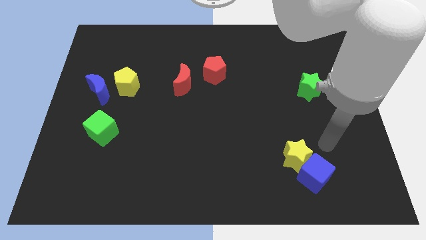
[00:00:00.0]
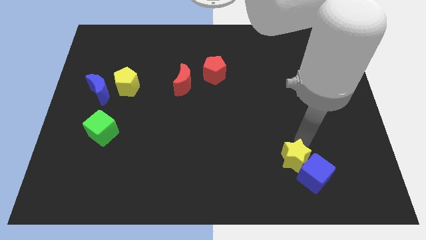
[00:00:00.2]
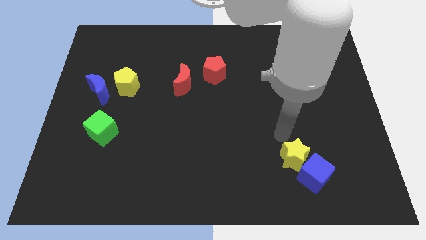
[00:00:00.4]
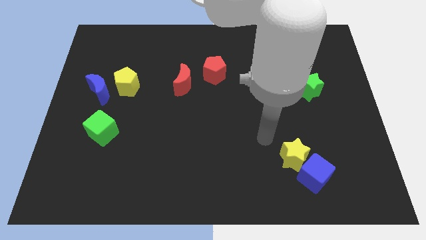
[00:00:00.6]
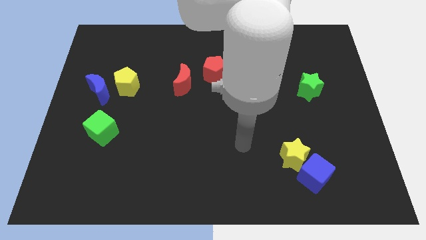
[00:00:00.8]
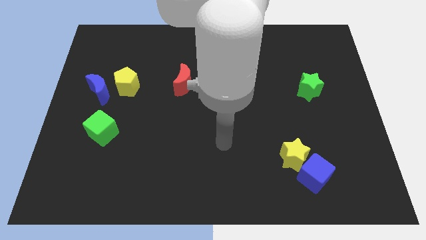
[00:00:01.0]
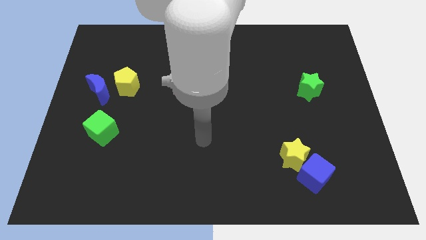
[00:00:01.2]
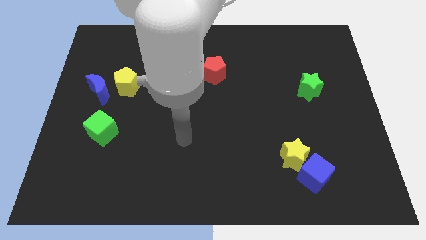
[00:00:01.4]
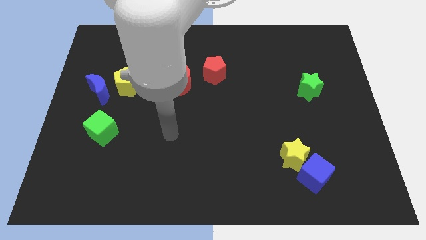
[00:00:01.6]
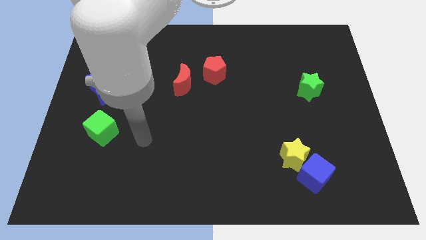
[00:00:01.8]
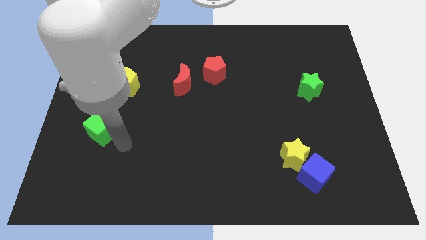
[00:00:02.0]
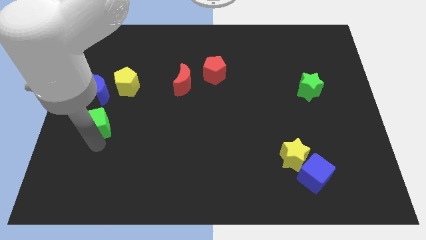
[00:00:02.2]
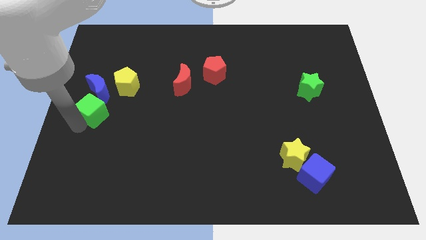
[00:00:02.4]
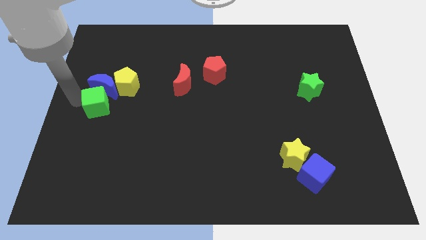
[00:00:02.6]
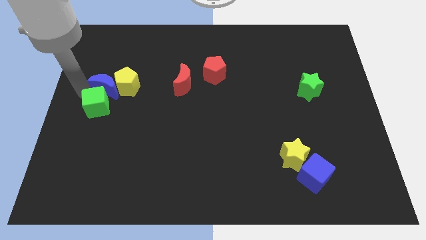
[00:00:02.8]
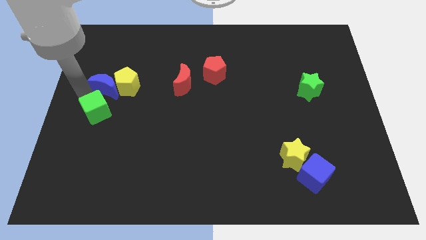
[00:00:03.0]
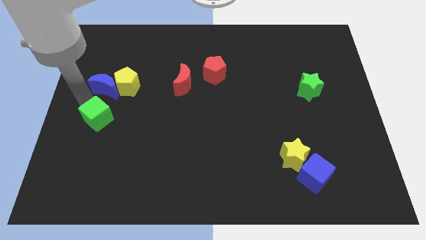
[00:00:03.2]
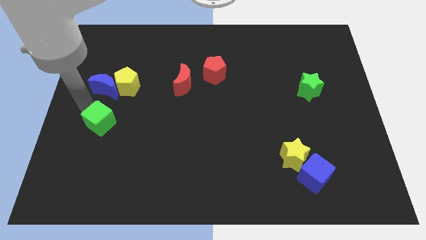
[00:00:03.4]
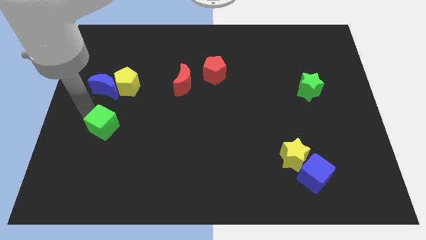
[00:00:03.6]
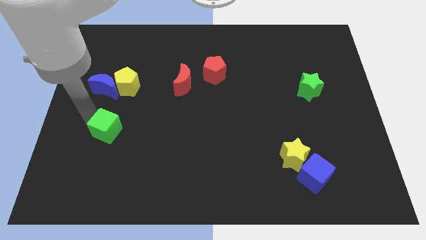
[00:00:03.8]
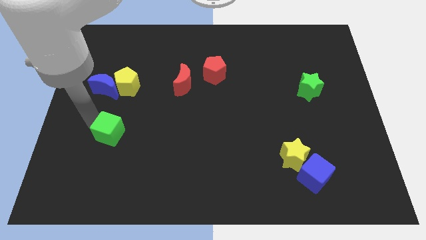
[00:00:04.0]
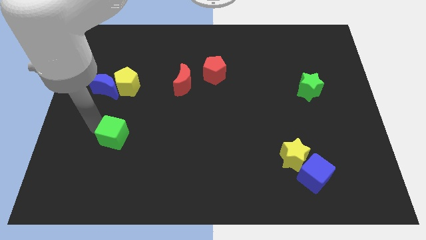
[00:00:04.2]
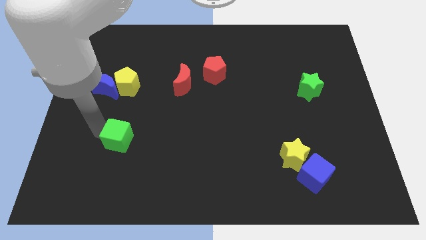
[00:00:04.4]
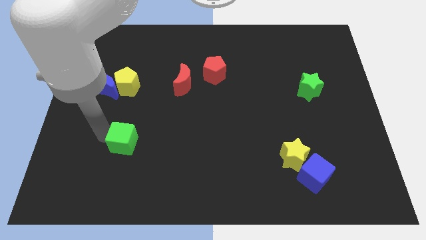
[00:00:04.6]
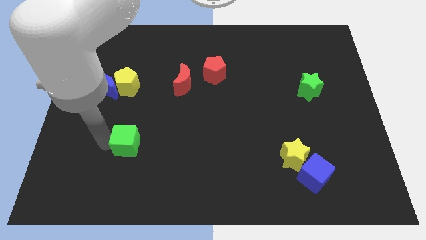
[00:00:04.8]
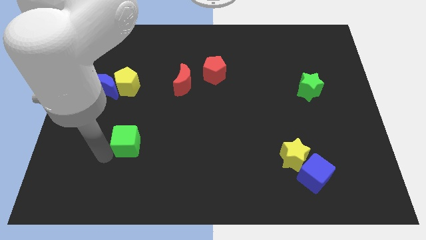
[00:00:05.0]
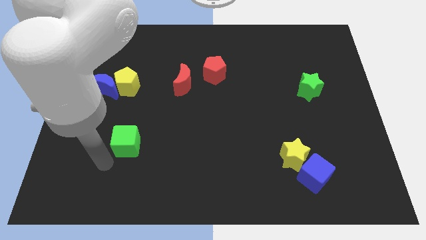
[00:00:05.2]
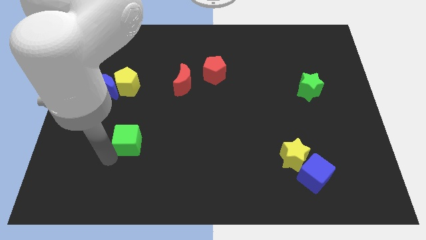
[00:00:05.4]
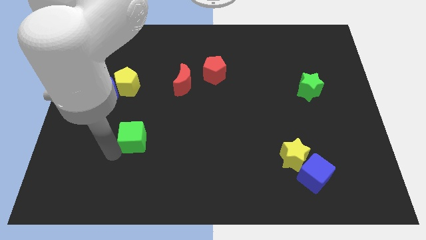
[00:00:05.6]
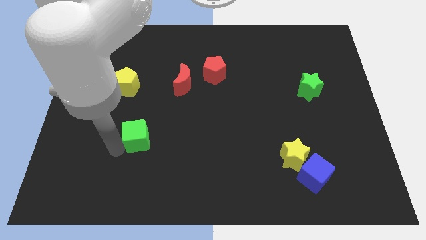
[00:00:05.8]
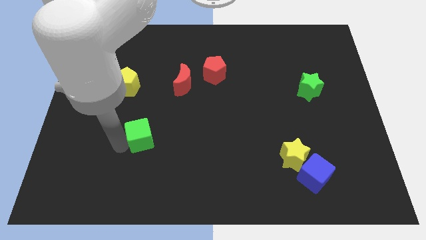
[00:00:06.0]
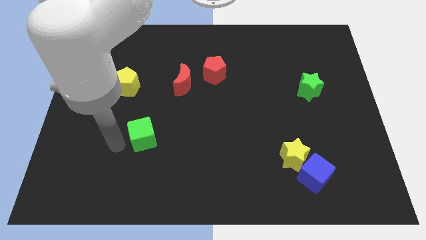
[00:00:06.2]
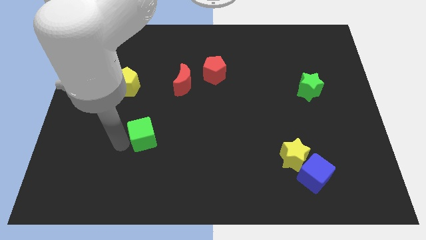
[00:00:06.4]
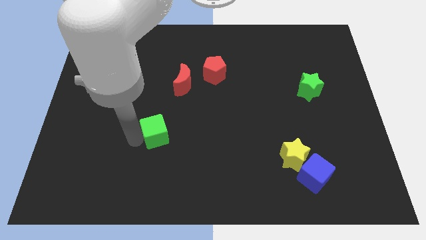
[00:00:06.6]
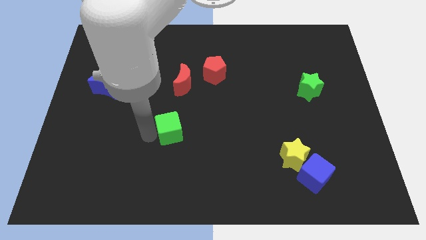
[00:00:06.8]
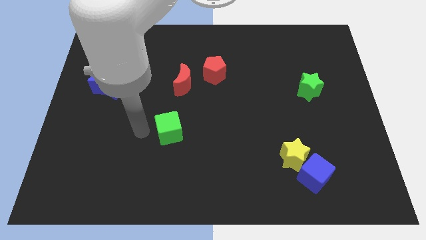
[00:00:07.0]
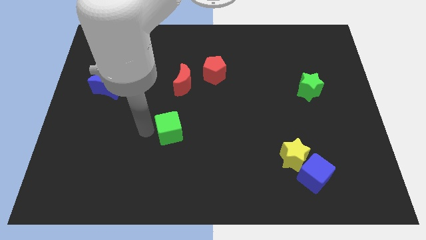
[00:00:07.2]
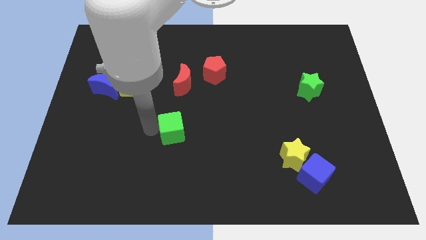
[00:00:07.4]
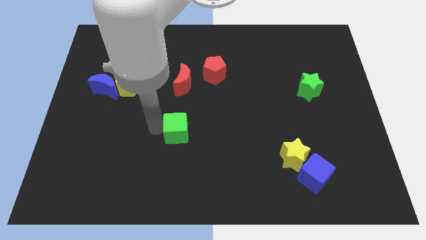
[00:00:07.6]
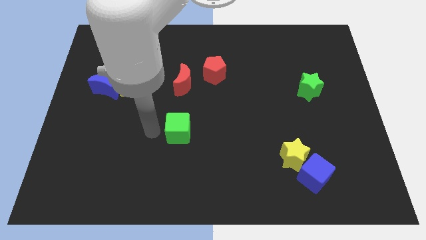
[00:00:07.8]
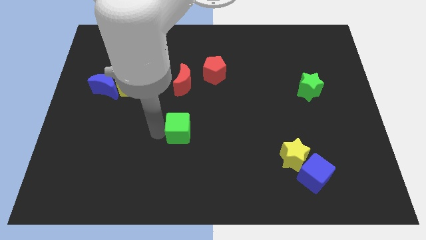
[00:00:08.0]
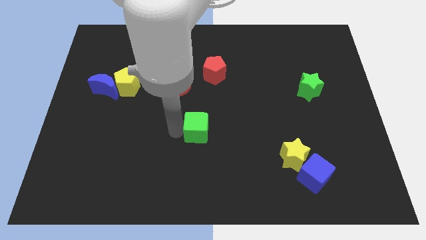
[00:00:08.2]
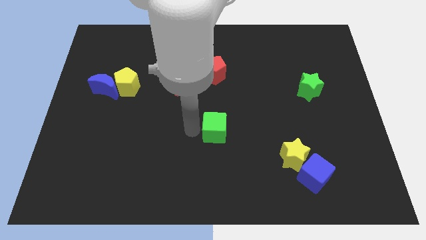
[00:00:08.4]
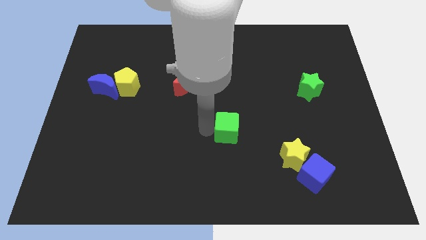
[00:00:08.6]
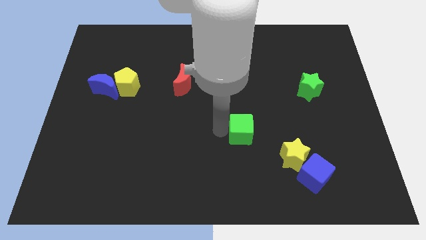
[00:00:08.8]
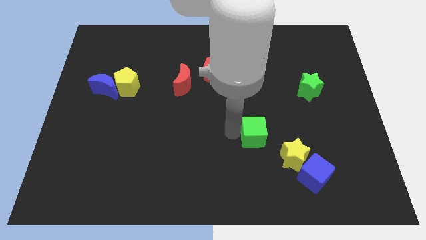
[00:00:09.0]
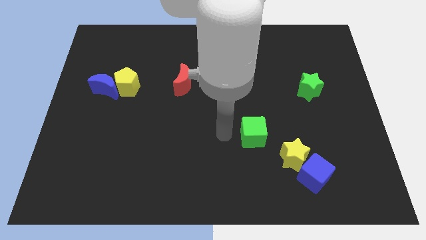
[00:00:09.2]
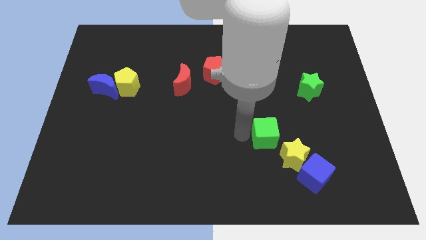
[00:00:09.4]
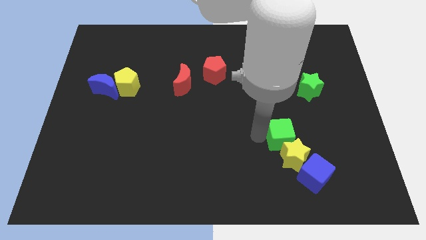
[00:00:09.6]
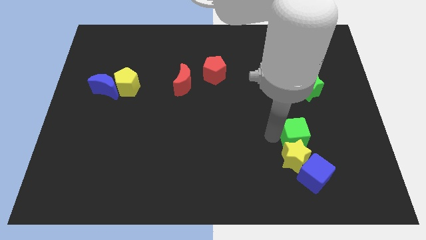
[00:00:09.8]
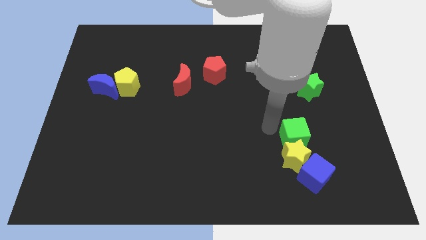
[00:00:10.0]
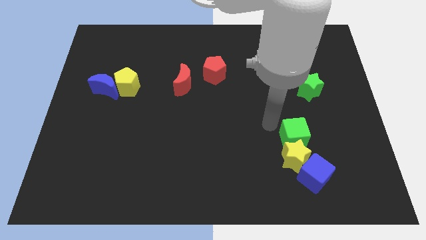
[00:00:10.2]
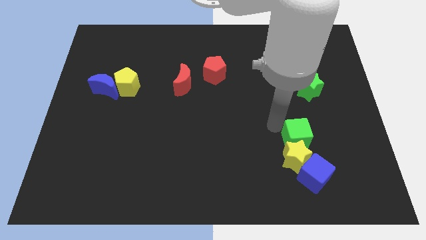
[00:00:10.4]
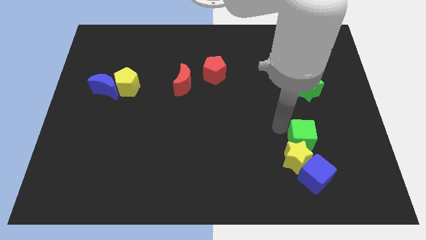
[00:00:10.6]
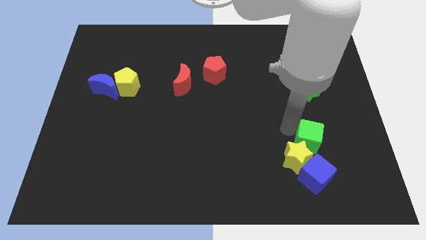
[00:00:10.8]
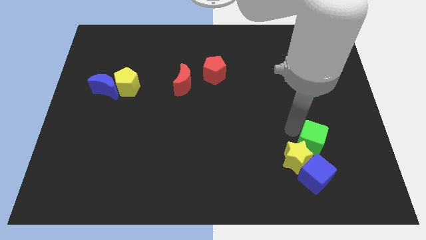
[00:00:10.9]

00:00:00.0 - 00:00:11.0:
push the green cube just right of the yellow star

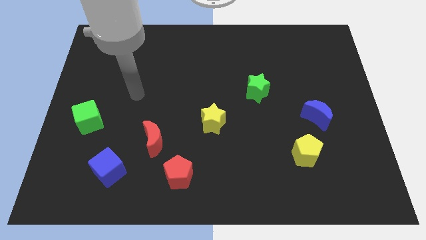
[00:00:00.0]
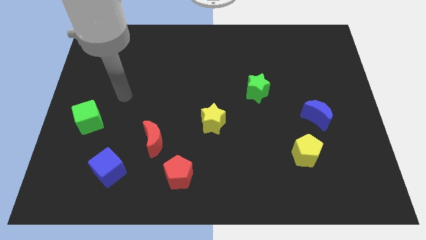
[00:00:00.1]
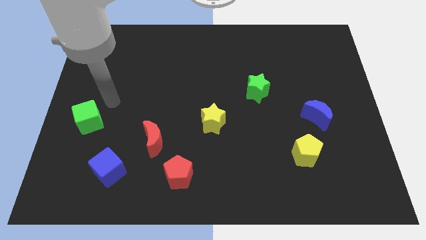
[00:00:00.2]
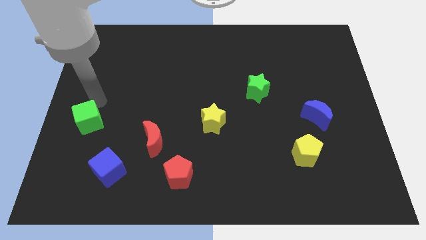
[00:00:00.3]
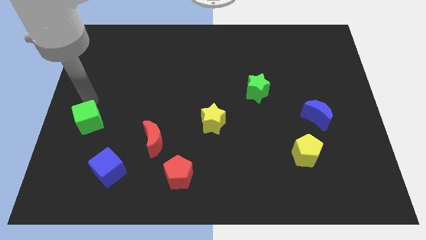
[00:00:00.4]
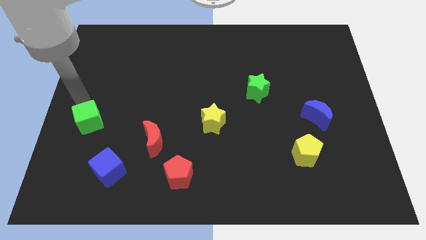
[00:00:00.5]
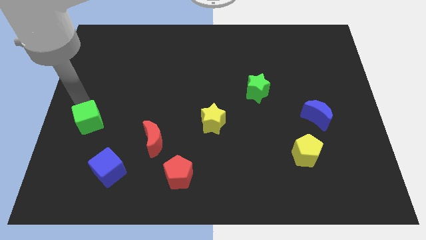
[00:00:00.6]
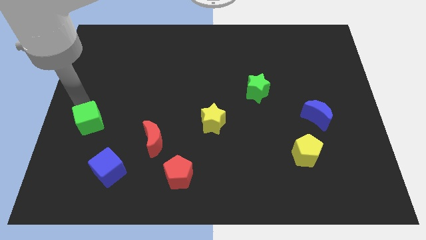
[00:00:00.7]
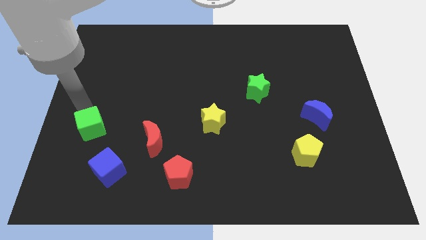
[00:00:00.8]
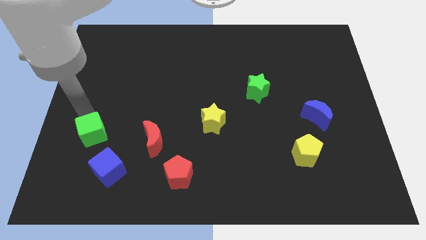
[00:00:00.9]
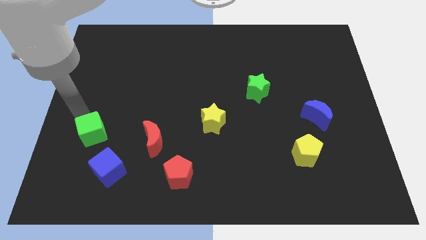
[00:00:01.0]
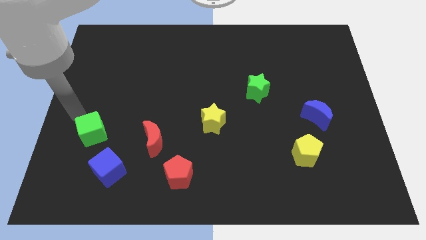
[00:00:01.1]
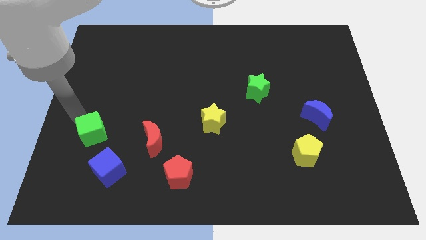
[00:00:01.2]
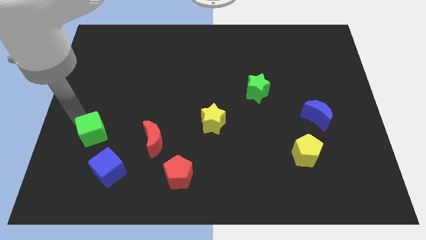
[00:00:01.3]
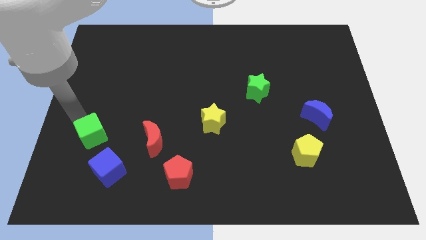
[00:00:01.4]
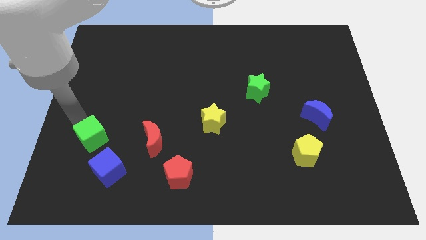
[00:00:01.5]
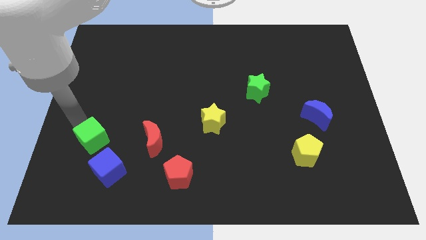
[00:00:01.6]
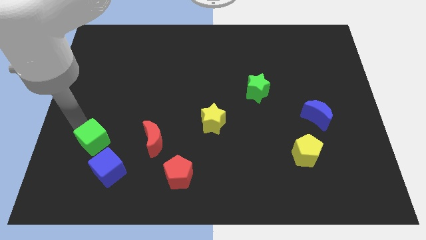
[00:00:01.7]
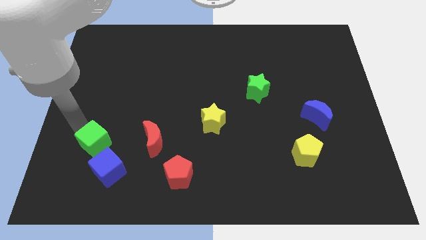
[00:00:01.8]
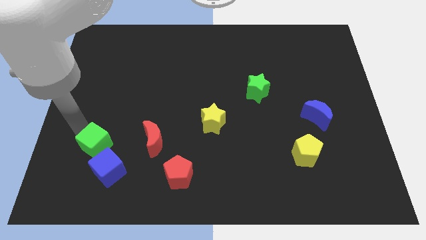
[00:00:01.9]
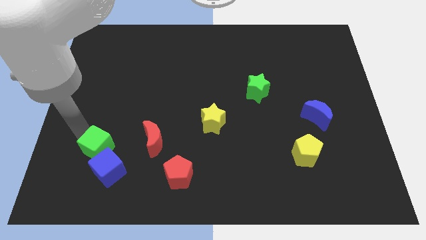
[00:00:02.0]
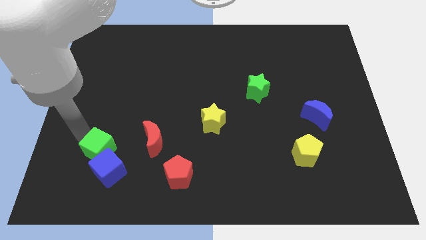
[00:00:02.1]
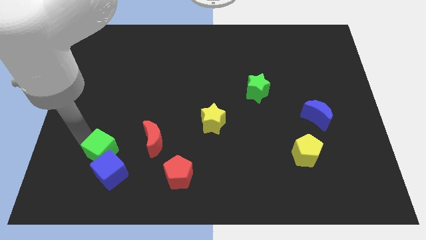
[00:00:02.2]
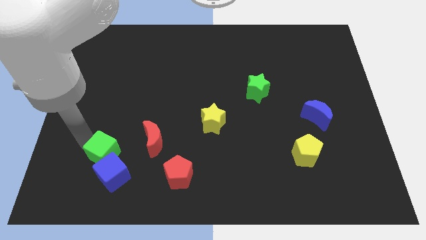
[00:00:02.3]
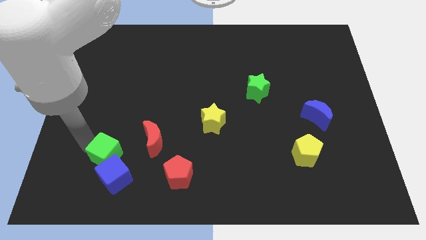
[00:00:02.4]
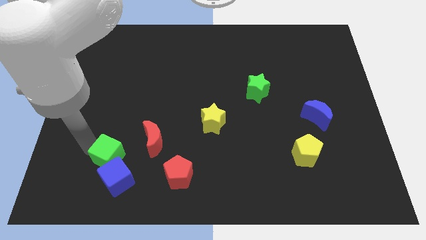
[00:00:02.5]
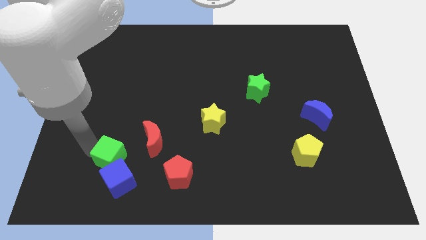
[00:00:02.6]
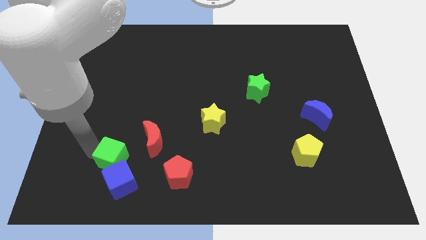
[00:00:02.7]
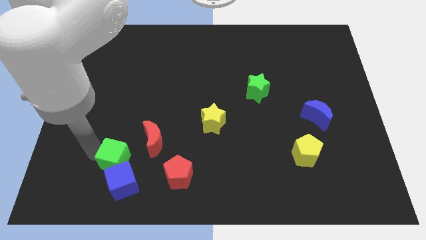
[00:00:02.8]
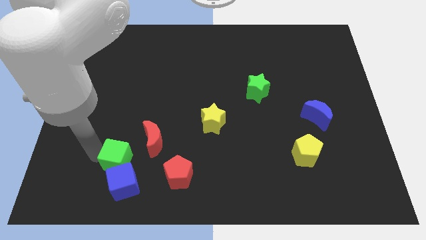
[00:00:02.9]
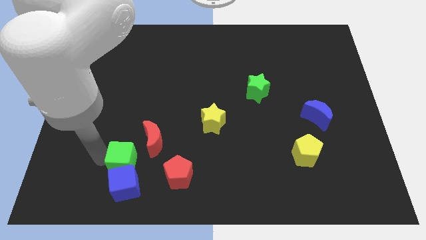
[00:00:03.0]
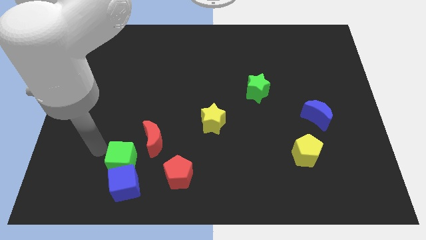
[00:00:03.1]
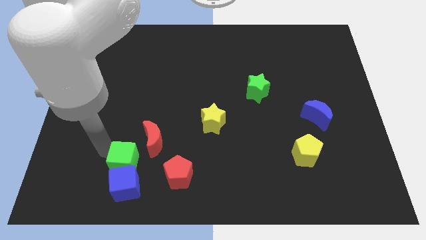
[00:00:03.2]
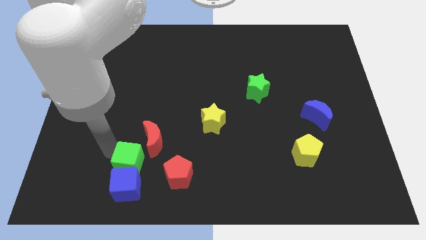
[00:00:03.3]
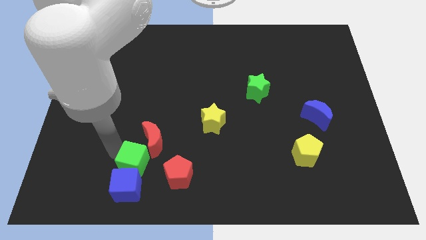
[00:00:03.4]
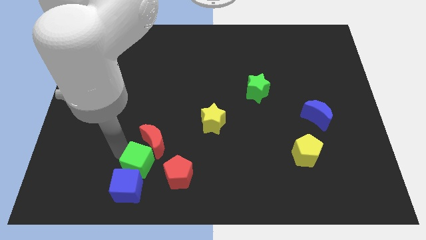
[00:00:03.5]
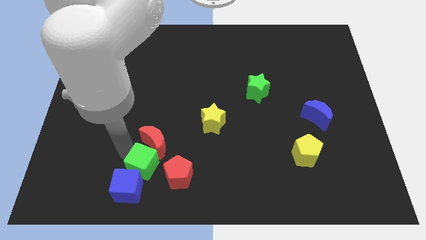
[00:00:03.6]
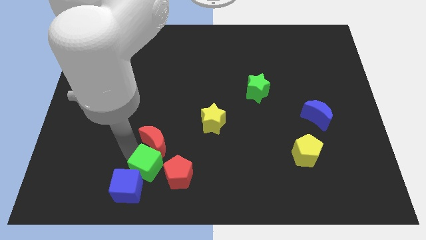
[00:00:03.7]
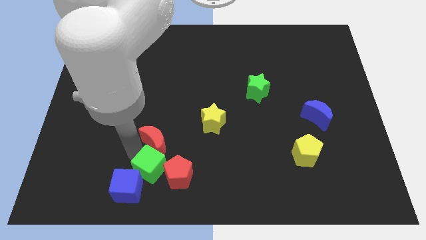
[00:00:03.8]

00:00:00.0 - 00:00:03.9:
put the green cube to the right side of the blue cube
